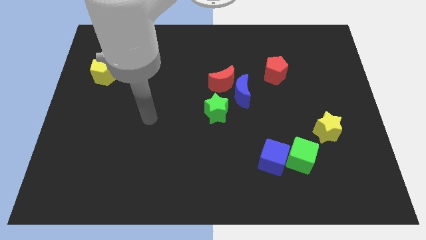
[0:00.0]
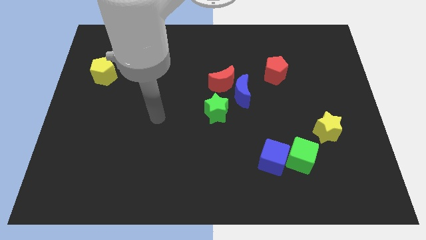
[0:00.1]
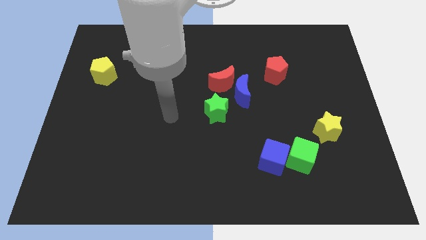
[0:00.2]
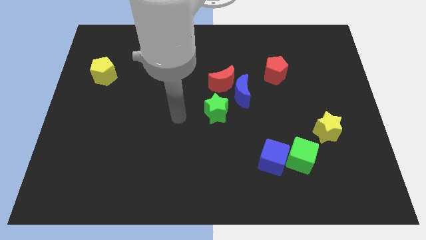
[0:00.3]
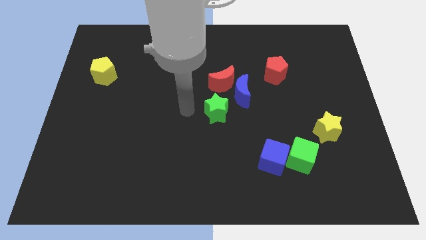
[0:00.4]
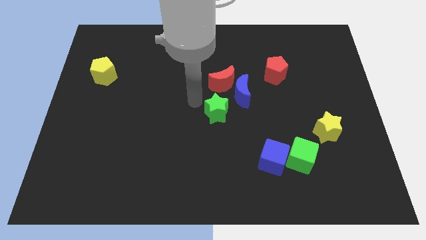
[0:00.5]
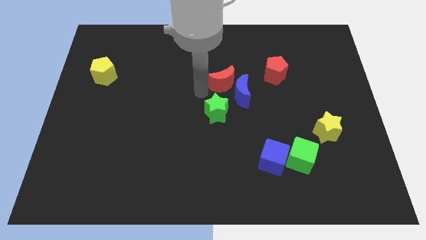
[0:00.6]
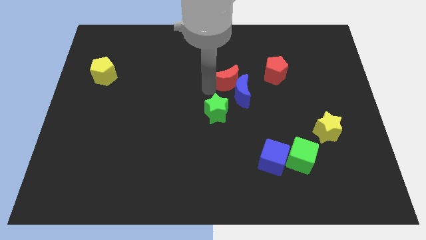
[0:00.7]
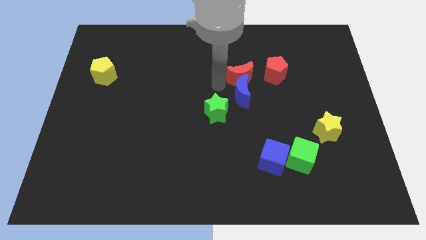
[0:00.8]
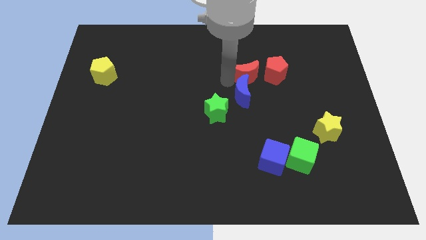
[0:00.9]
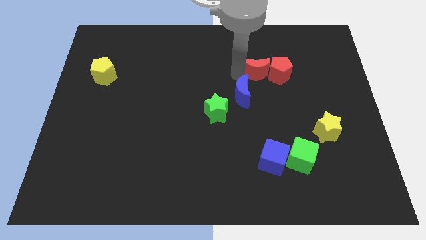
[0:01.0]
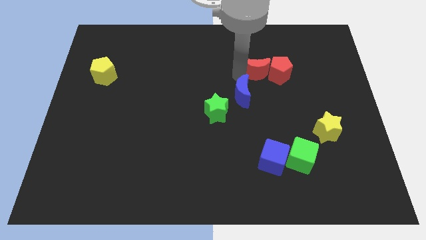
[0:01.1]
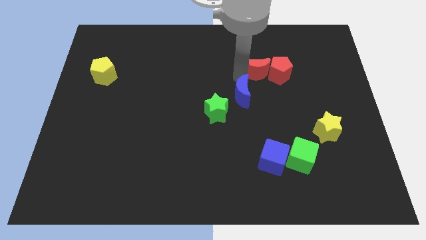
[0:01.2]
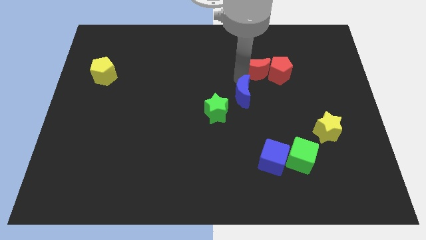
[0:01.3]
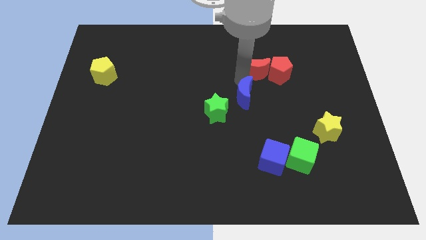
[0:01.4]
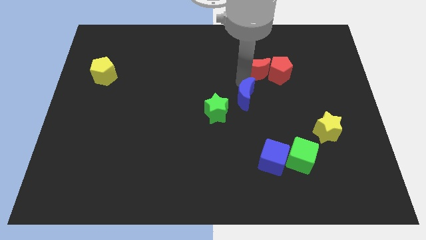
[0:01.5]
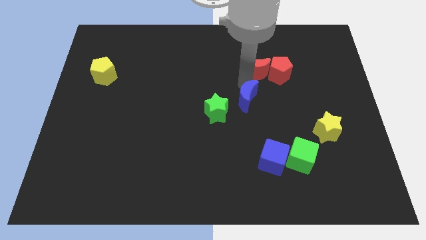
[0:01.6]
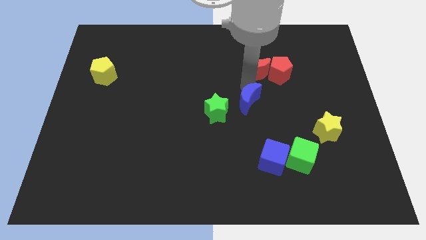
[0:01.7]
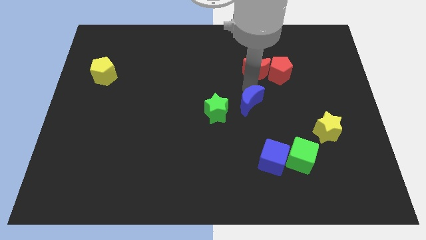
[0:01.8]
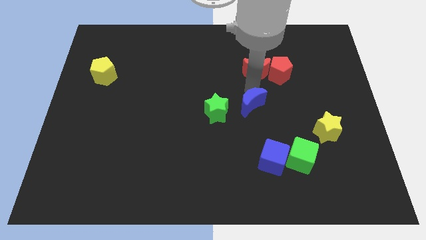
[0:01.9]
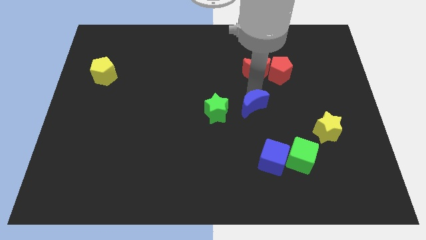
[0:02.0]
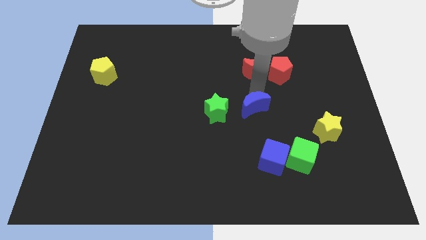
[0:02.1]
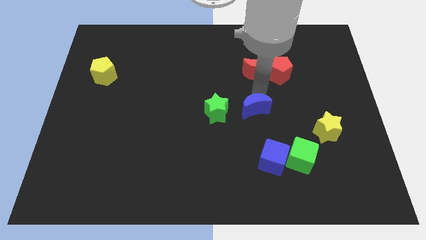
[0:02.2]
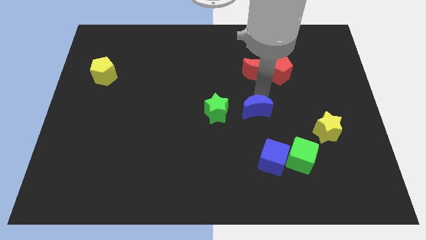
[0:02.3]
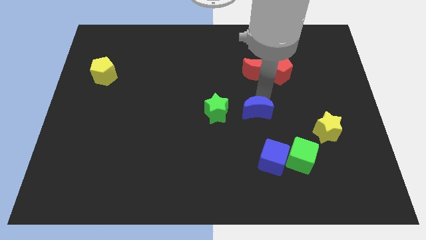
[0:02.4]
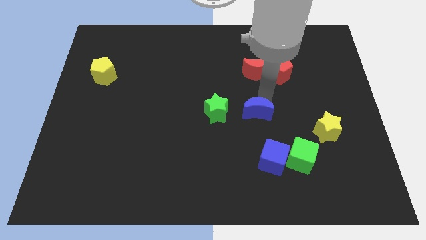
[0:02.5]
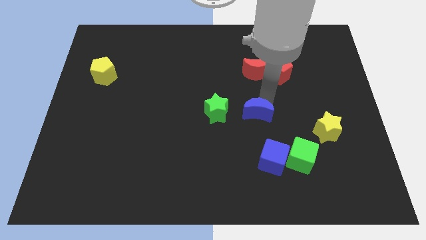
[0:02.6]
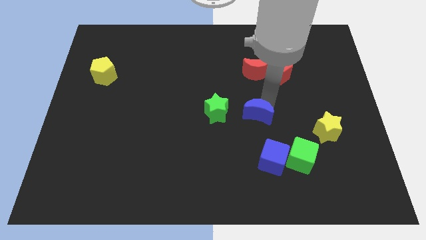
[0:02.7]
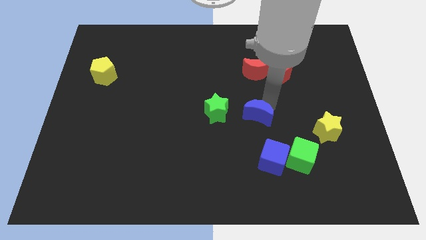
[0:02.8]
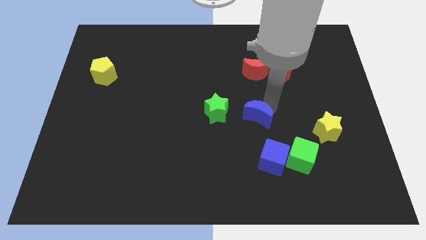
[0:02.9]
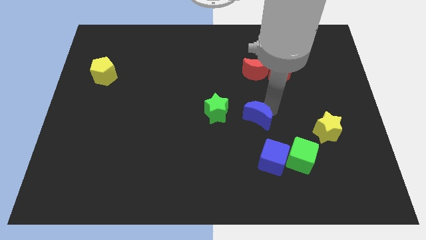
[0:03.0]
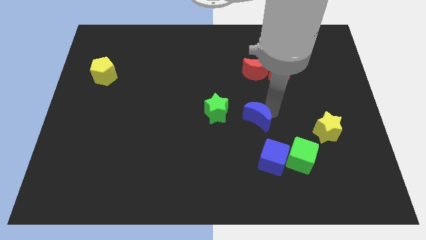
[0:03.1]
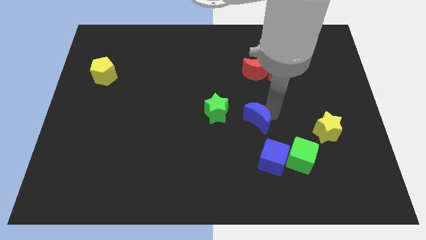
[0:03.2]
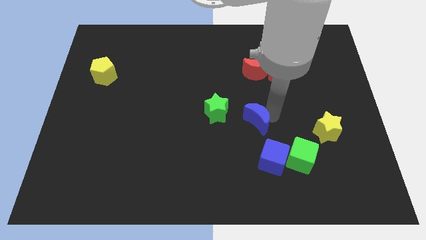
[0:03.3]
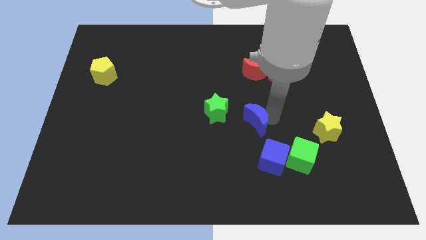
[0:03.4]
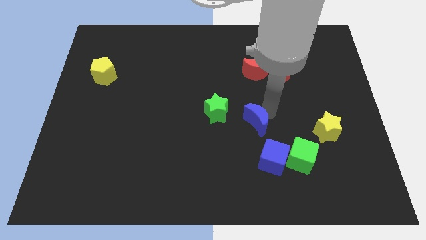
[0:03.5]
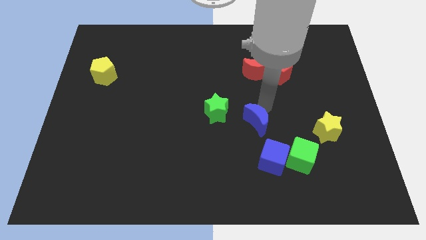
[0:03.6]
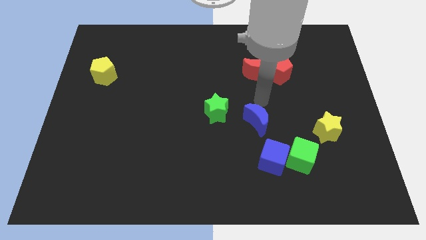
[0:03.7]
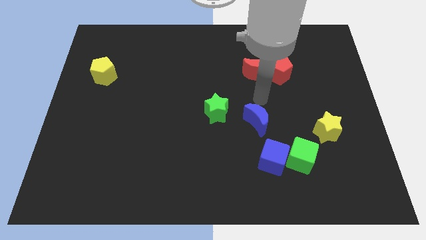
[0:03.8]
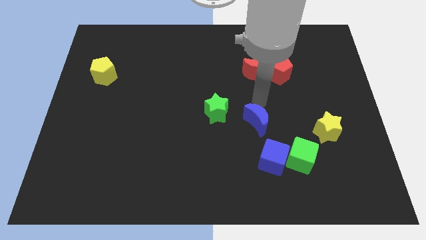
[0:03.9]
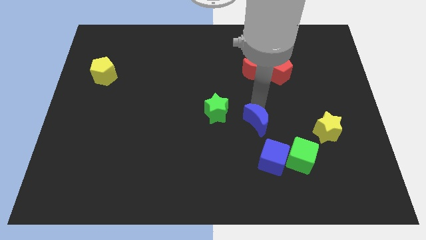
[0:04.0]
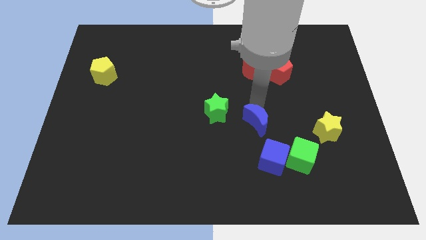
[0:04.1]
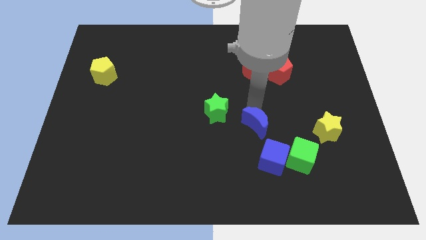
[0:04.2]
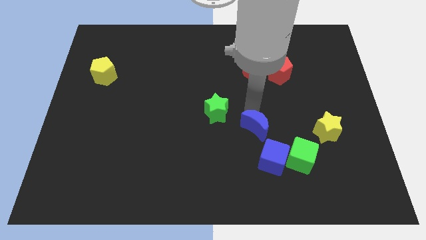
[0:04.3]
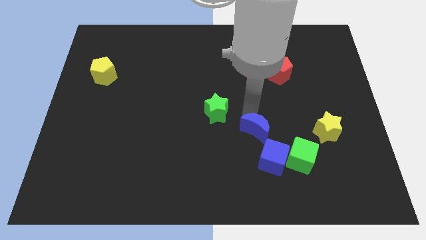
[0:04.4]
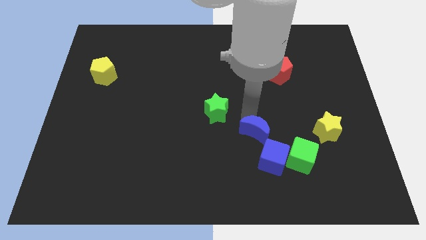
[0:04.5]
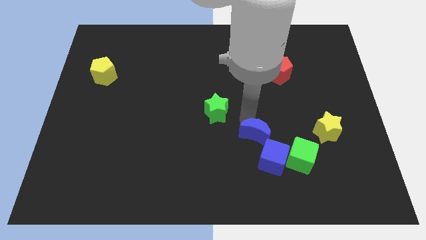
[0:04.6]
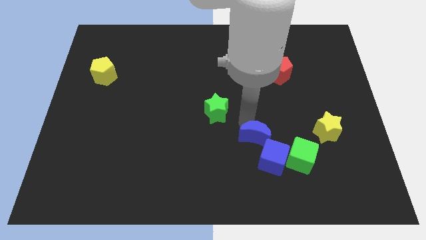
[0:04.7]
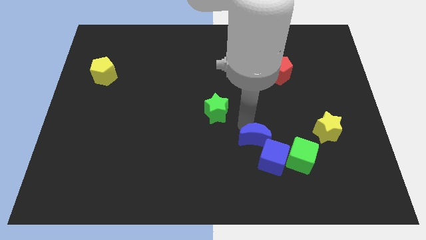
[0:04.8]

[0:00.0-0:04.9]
push the blue moon just left of the green cube

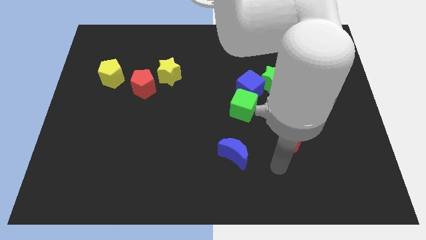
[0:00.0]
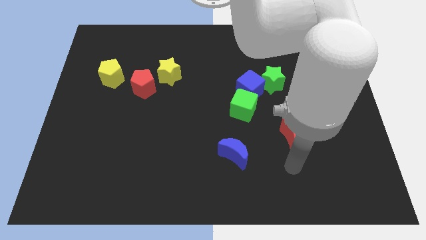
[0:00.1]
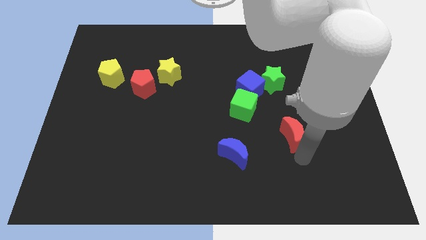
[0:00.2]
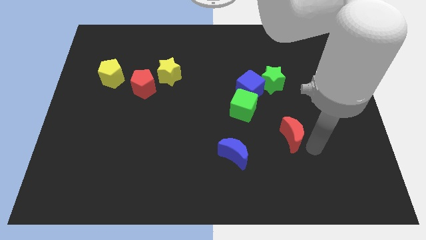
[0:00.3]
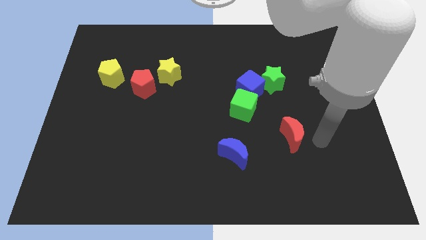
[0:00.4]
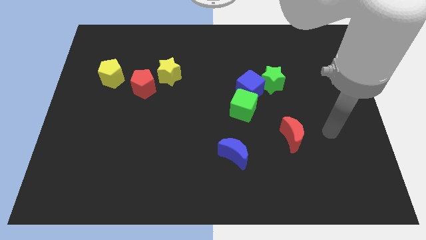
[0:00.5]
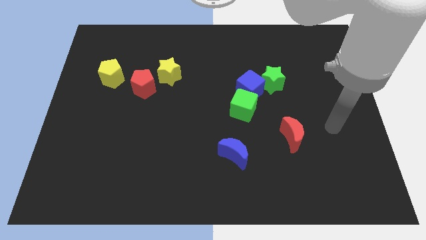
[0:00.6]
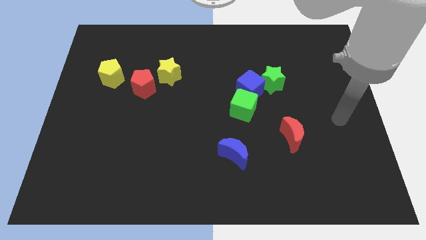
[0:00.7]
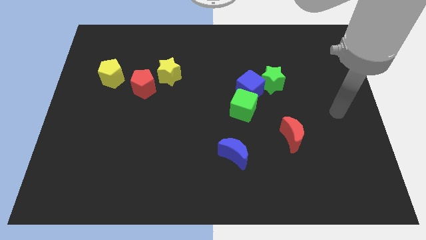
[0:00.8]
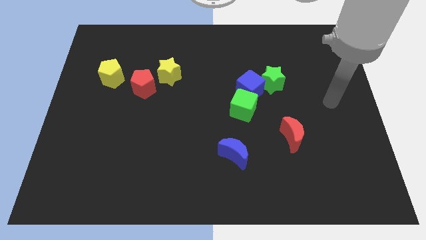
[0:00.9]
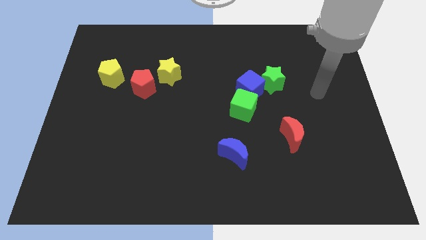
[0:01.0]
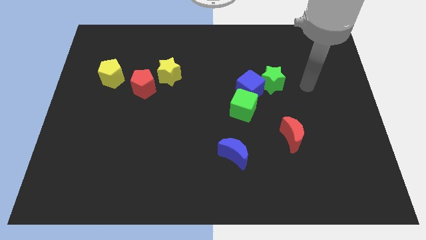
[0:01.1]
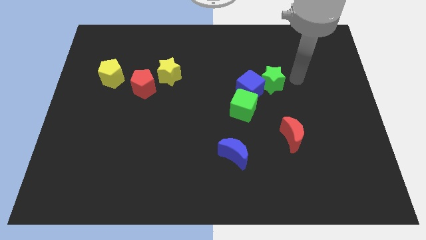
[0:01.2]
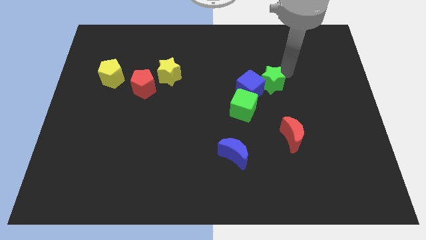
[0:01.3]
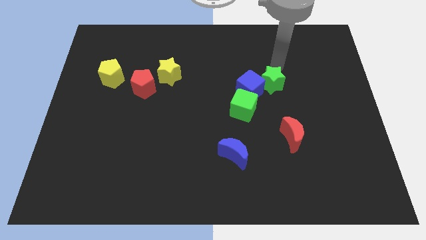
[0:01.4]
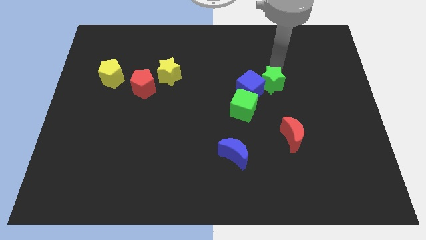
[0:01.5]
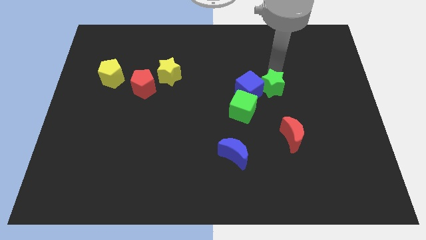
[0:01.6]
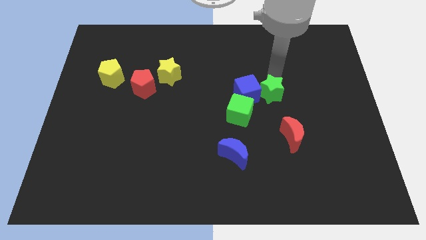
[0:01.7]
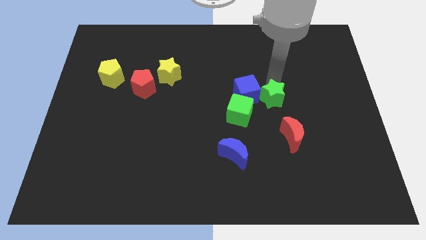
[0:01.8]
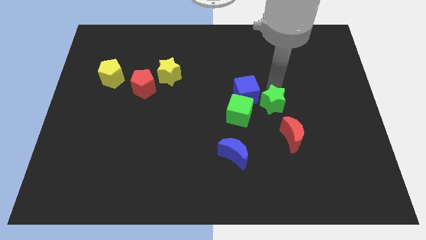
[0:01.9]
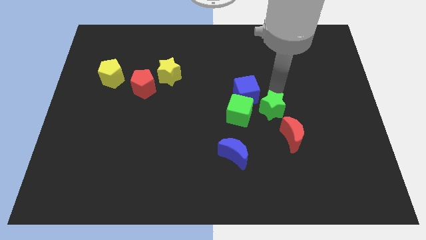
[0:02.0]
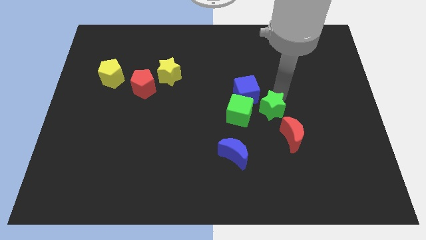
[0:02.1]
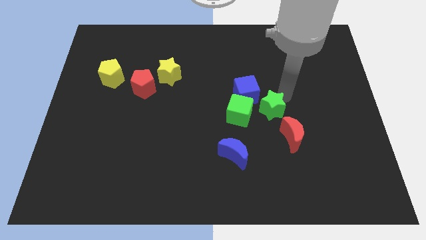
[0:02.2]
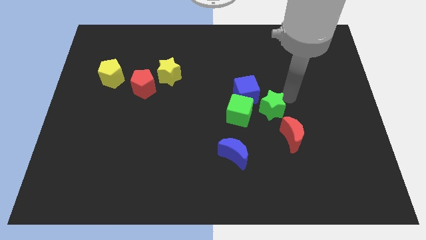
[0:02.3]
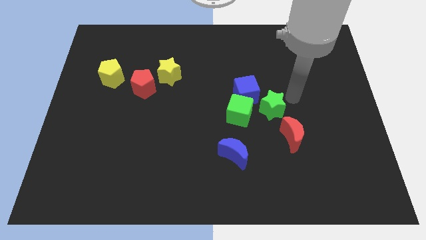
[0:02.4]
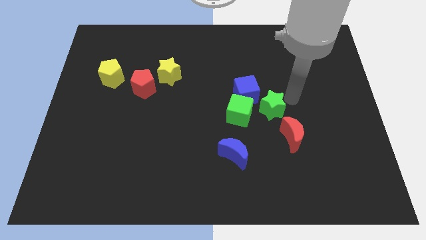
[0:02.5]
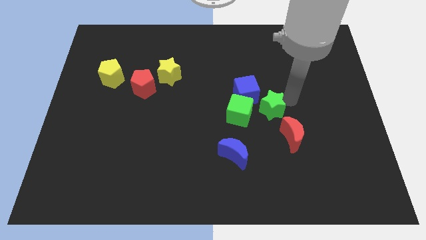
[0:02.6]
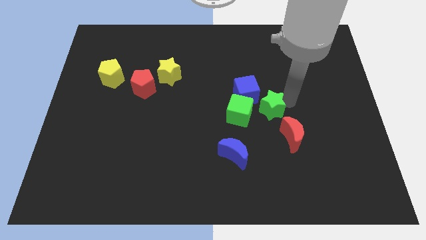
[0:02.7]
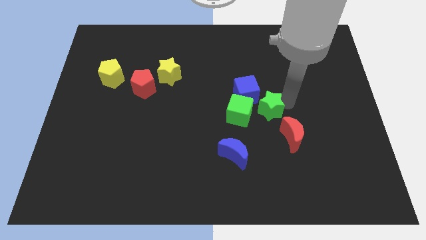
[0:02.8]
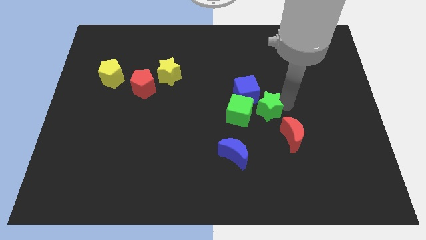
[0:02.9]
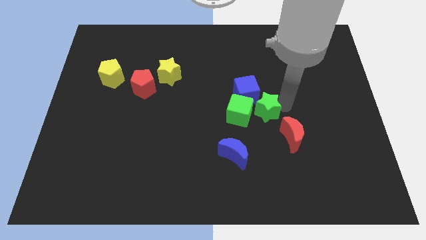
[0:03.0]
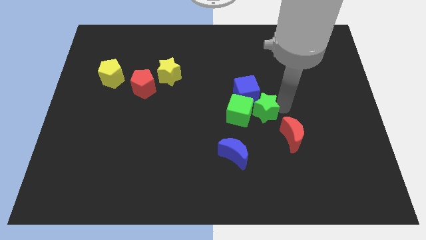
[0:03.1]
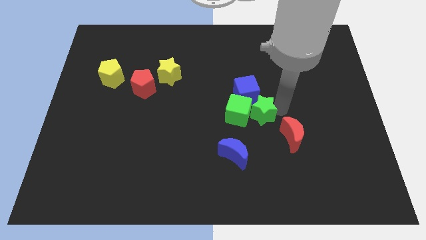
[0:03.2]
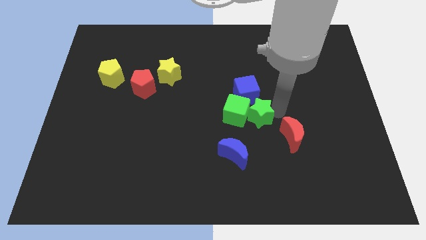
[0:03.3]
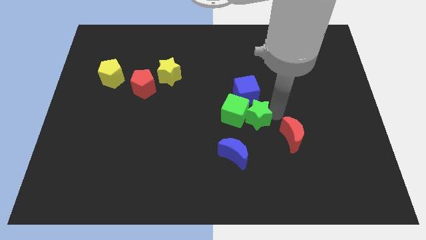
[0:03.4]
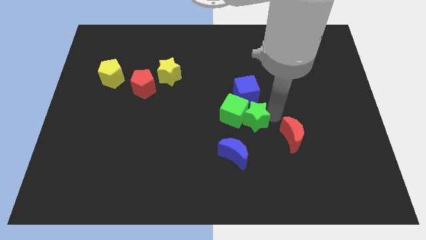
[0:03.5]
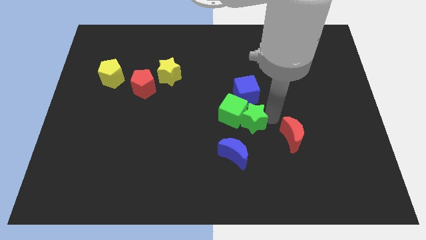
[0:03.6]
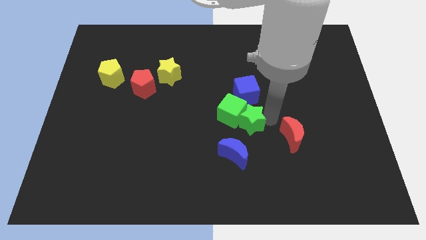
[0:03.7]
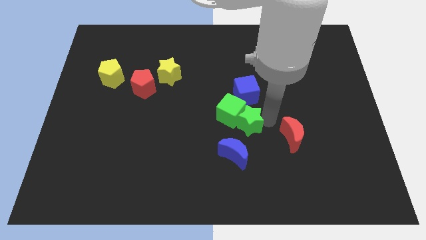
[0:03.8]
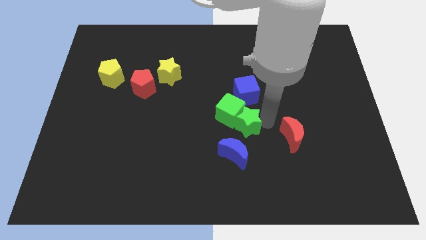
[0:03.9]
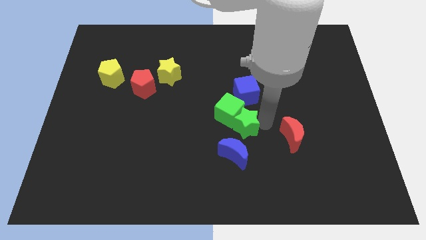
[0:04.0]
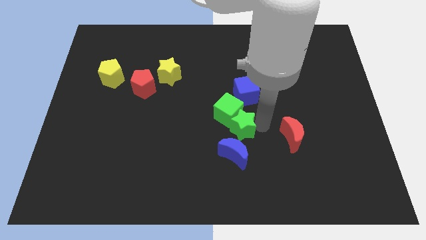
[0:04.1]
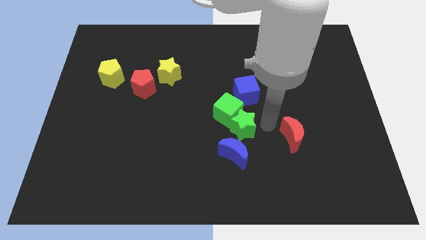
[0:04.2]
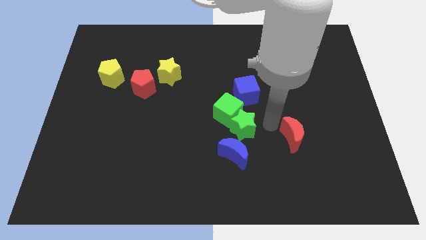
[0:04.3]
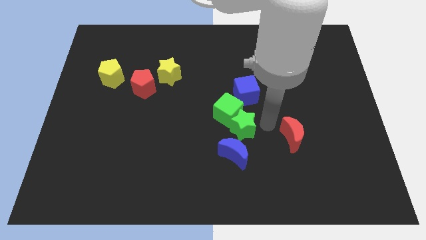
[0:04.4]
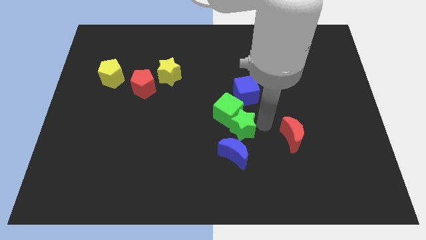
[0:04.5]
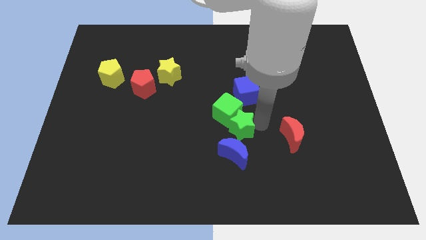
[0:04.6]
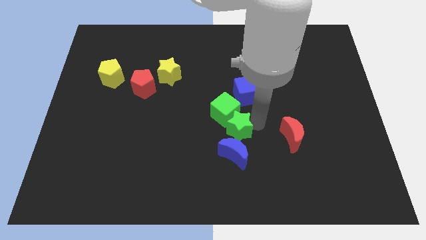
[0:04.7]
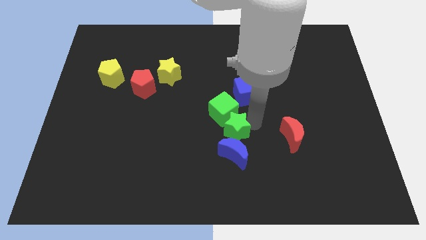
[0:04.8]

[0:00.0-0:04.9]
put the green star to the top left side of the blue moon
